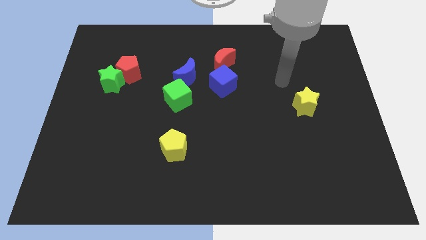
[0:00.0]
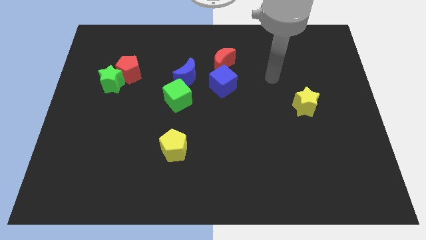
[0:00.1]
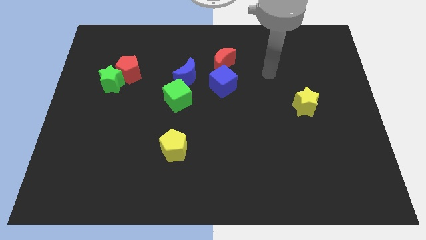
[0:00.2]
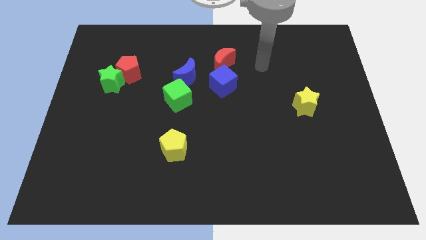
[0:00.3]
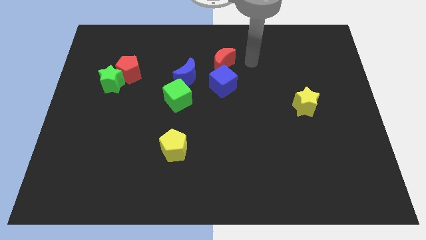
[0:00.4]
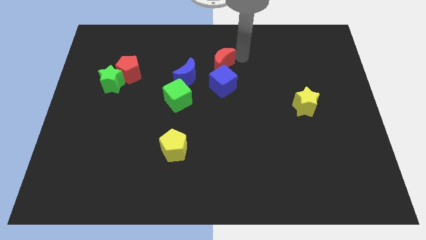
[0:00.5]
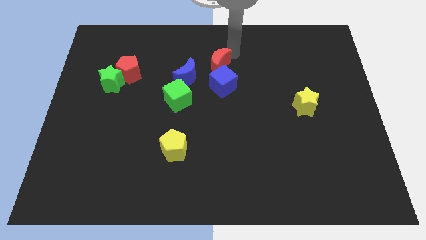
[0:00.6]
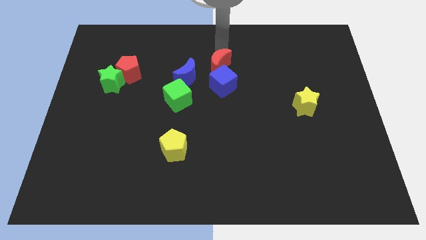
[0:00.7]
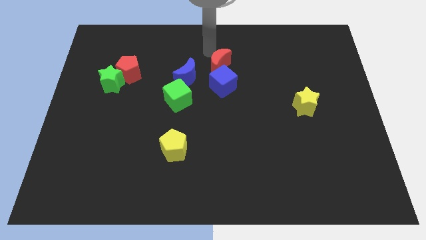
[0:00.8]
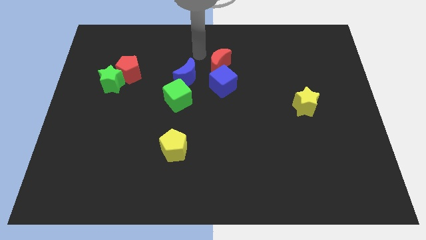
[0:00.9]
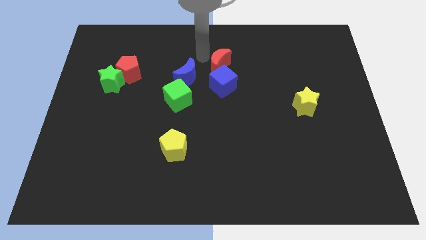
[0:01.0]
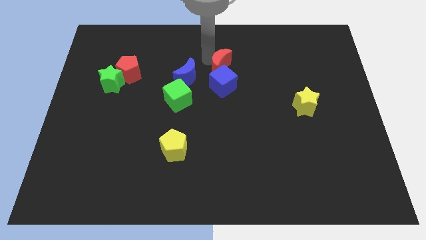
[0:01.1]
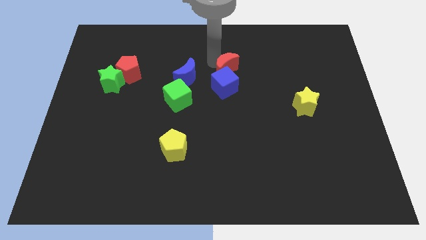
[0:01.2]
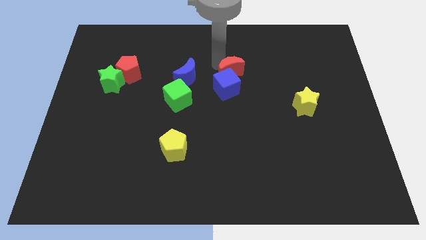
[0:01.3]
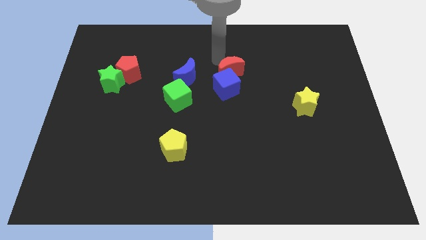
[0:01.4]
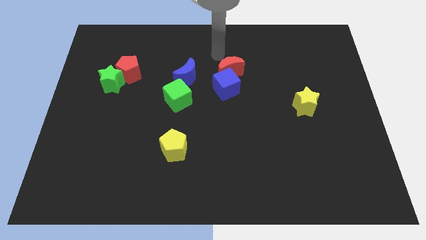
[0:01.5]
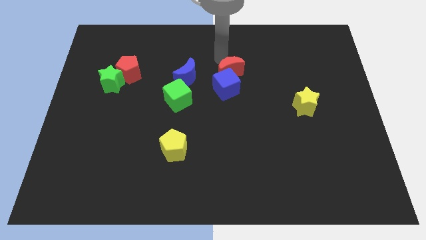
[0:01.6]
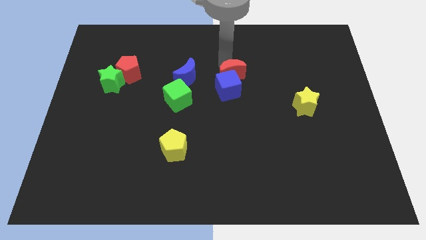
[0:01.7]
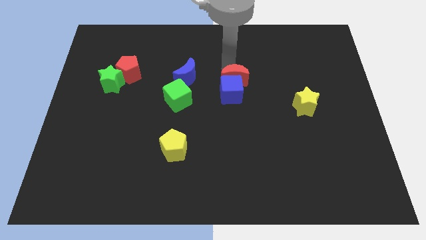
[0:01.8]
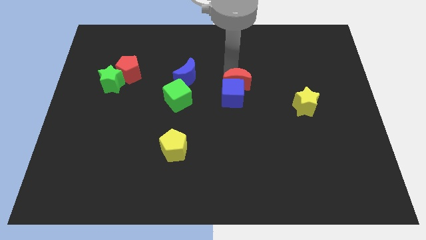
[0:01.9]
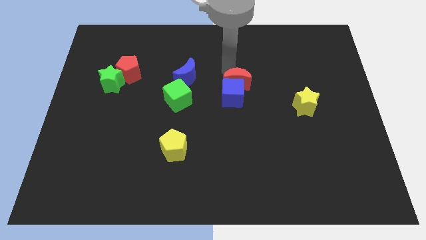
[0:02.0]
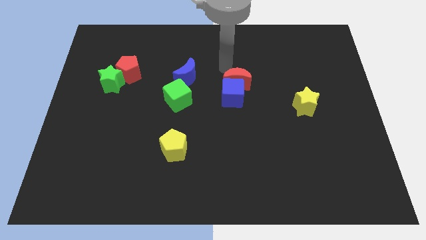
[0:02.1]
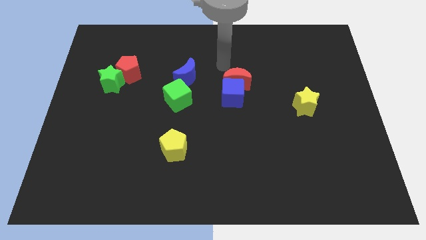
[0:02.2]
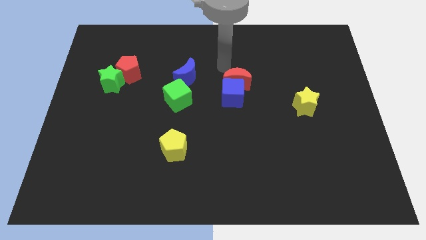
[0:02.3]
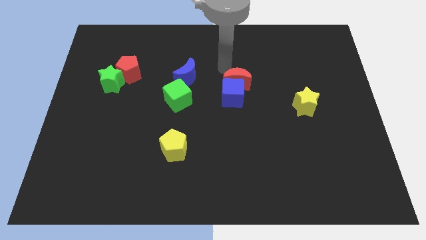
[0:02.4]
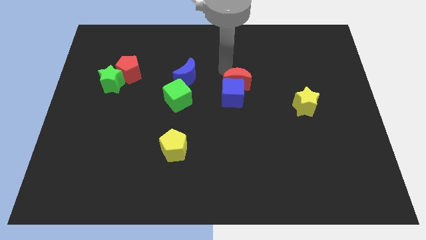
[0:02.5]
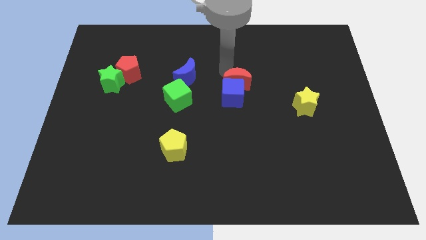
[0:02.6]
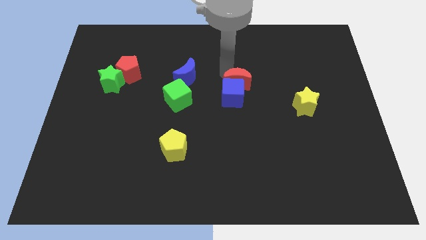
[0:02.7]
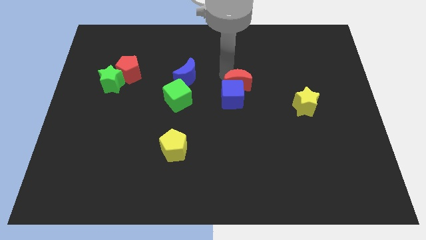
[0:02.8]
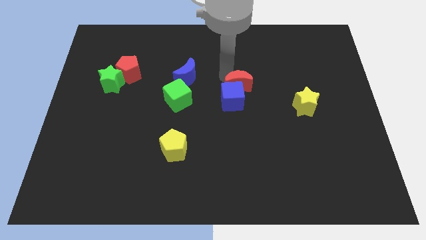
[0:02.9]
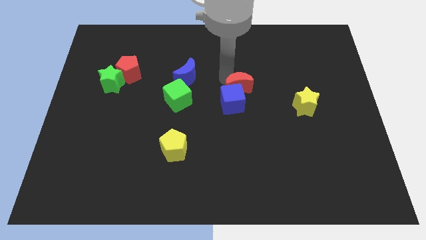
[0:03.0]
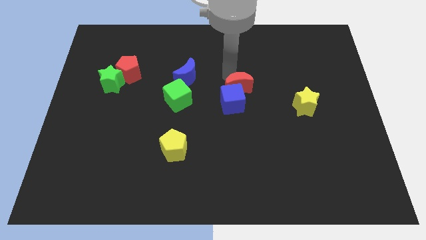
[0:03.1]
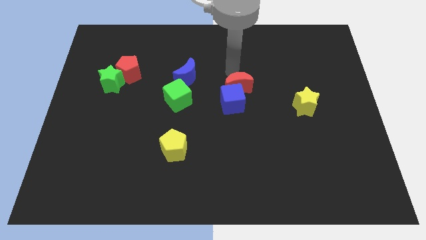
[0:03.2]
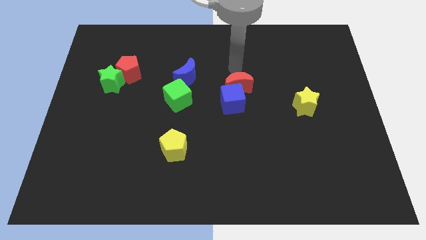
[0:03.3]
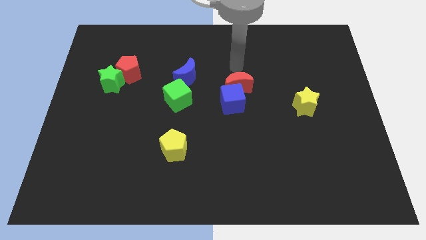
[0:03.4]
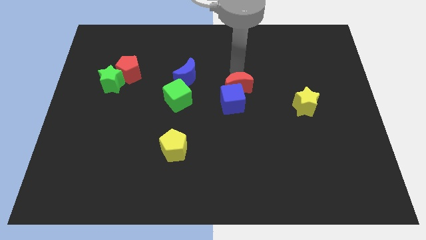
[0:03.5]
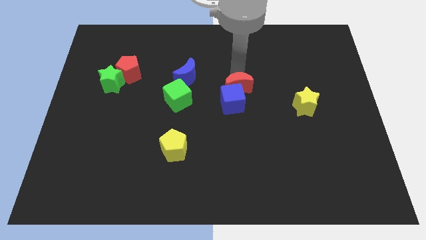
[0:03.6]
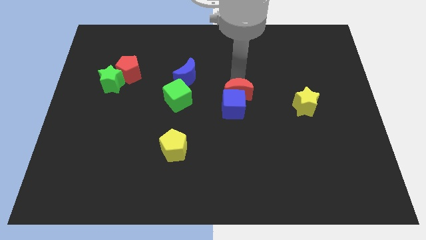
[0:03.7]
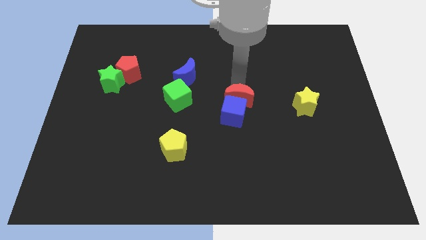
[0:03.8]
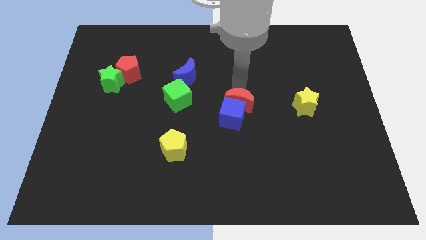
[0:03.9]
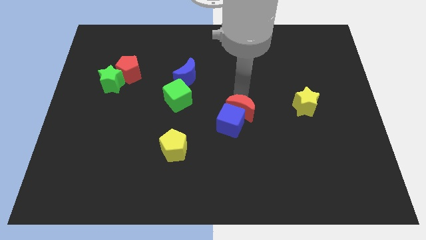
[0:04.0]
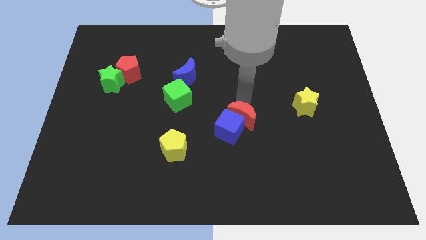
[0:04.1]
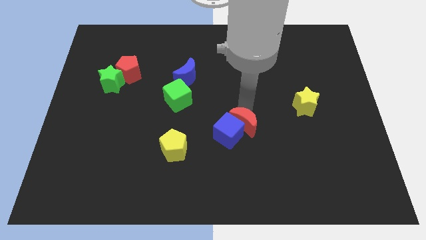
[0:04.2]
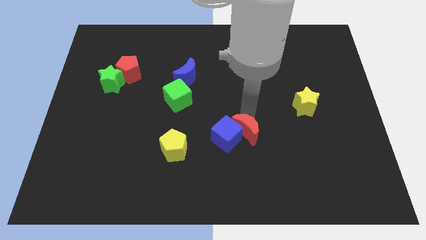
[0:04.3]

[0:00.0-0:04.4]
move the red moon downwards

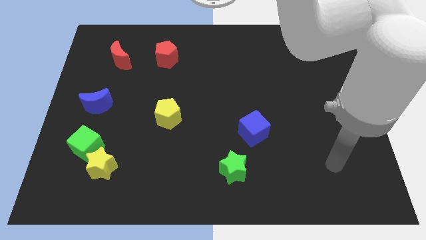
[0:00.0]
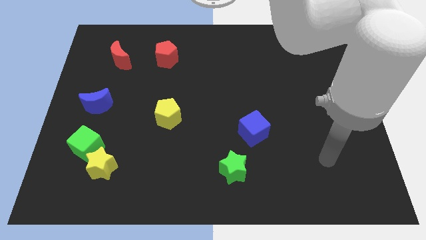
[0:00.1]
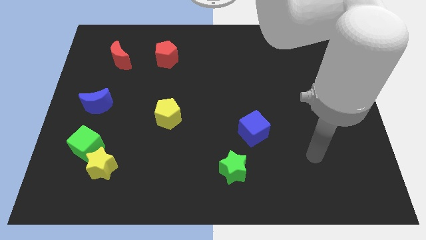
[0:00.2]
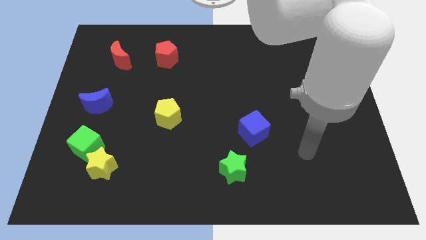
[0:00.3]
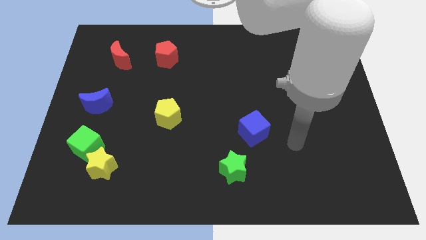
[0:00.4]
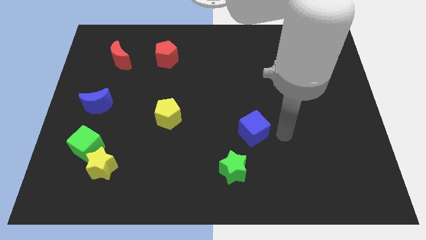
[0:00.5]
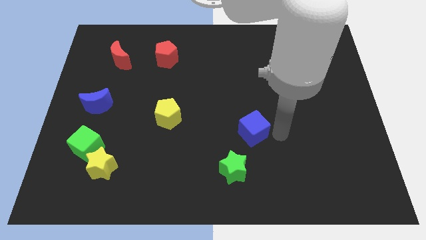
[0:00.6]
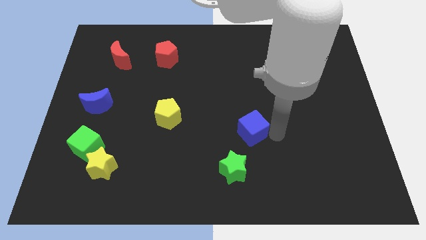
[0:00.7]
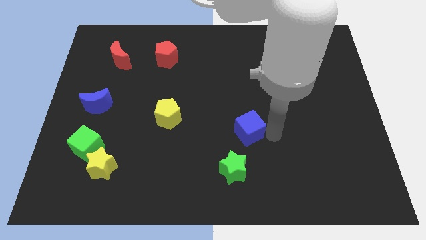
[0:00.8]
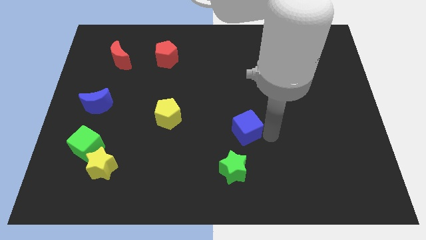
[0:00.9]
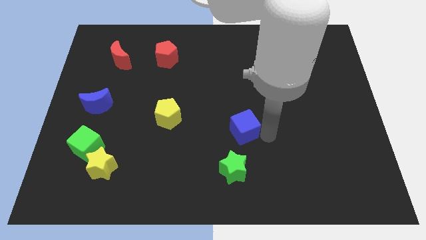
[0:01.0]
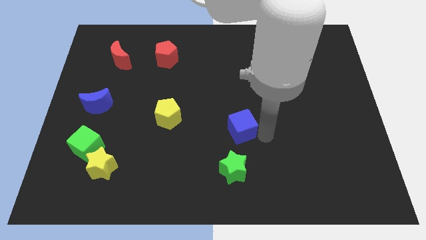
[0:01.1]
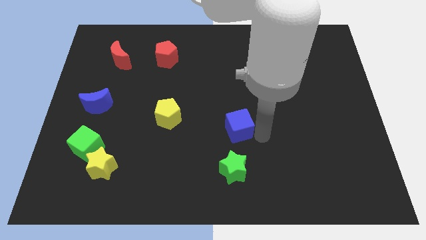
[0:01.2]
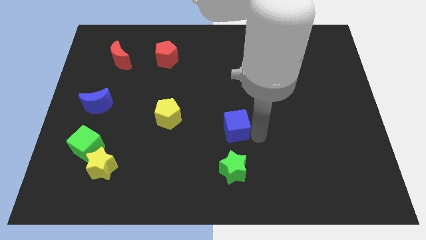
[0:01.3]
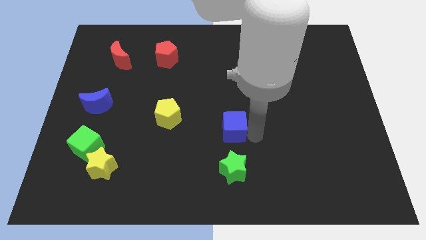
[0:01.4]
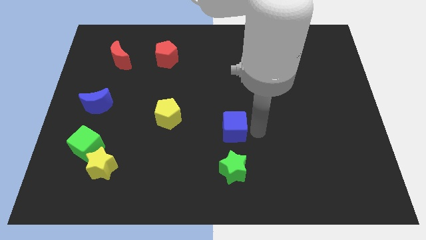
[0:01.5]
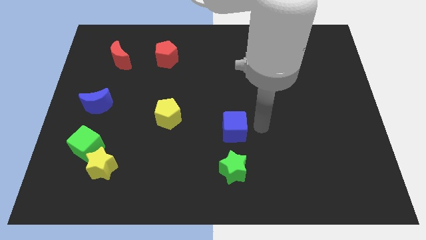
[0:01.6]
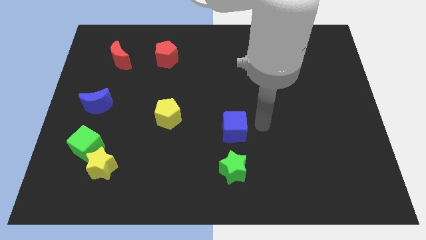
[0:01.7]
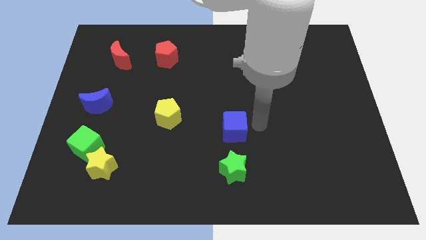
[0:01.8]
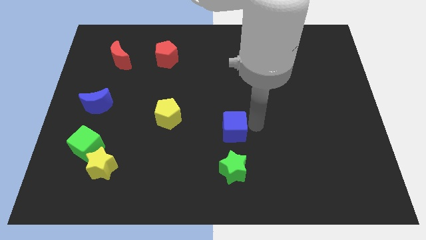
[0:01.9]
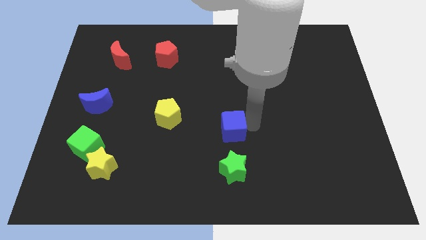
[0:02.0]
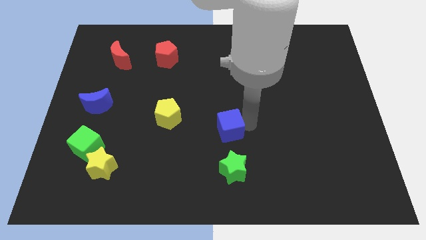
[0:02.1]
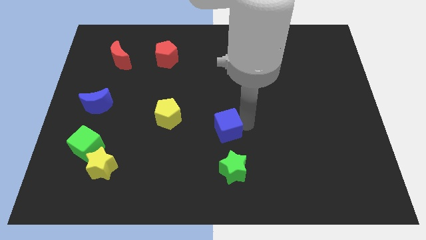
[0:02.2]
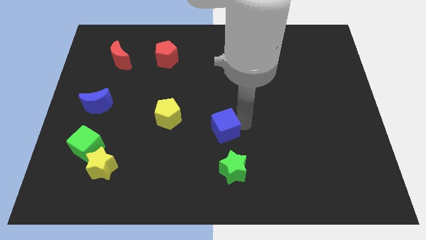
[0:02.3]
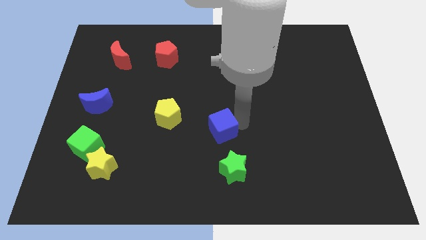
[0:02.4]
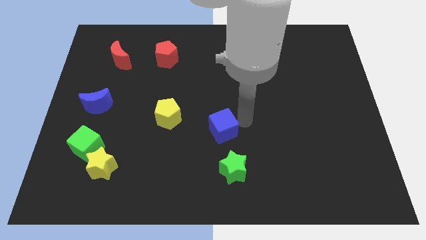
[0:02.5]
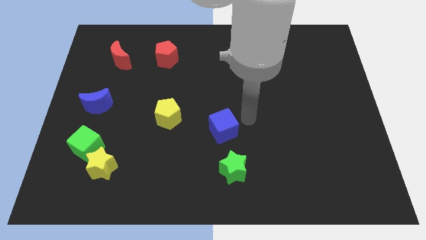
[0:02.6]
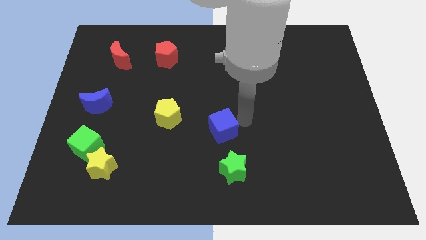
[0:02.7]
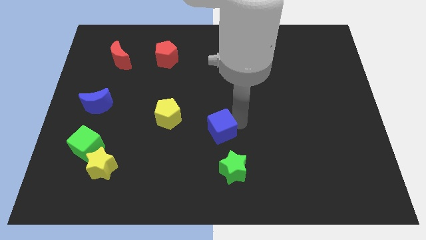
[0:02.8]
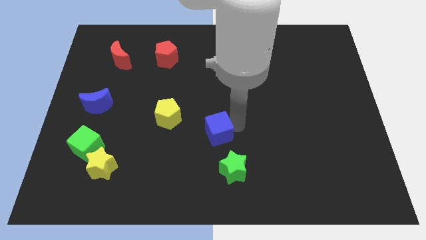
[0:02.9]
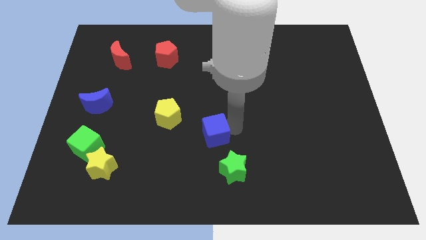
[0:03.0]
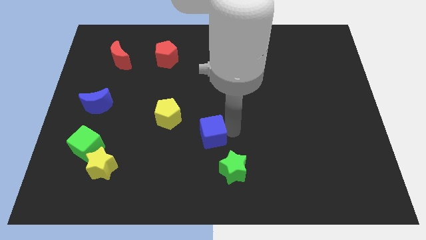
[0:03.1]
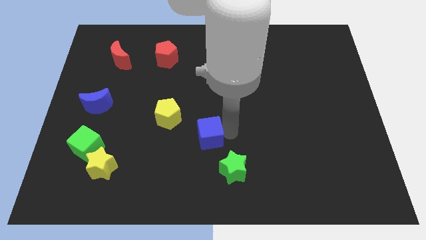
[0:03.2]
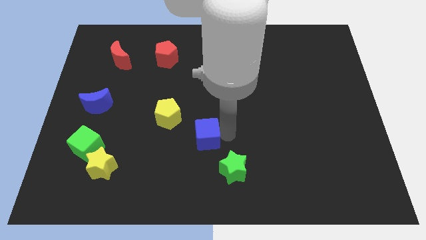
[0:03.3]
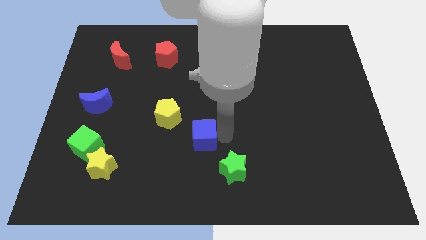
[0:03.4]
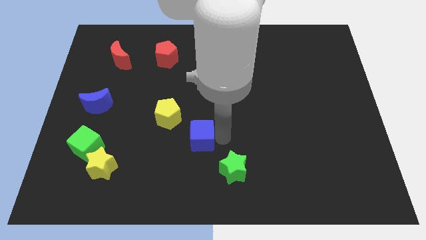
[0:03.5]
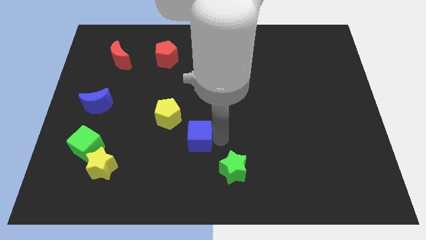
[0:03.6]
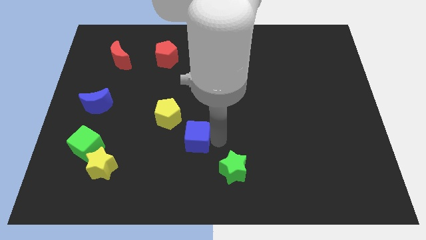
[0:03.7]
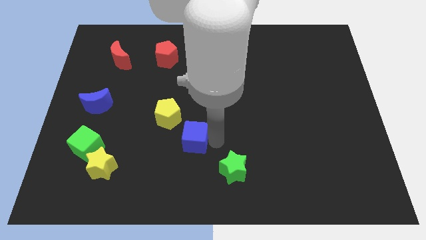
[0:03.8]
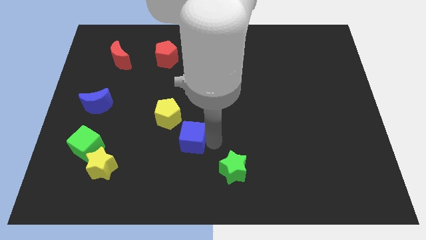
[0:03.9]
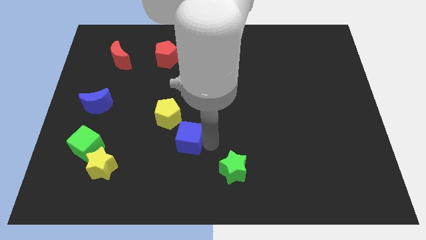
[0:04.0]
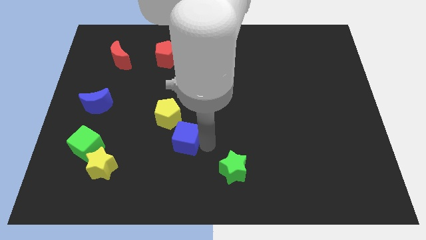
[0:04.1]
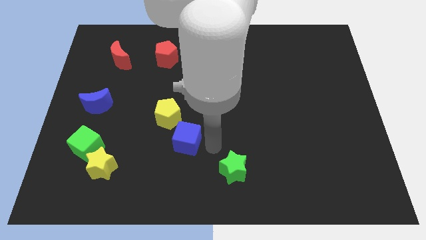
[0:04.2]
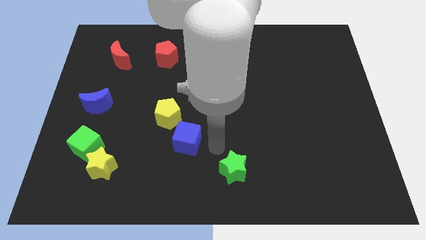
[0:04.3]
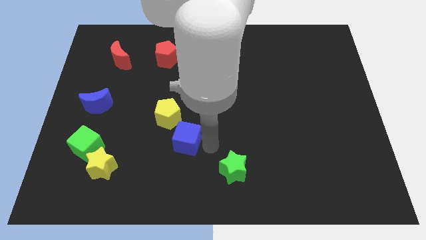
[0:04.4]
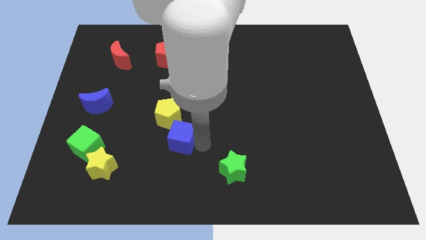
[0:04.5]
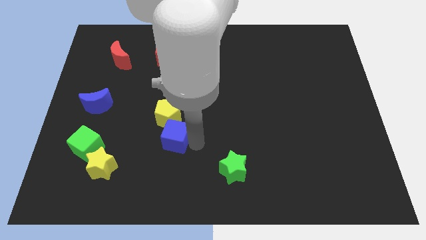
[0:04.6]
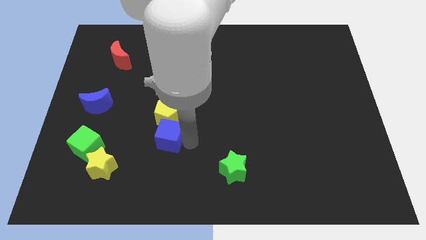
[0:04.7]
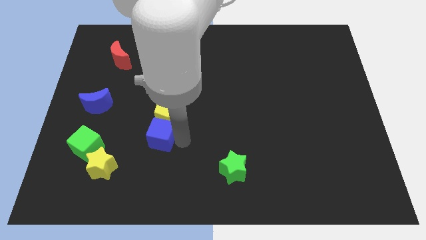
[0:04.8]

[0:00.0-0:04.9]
slide the blue cube to the left
